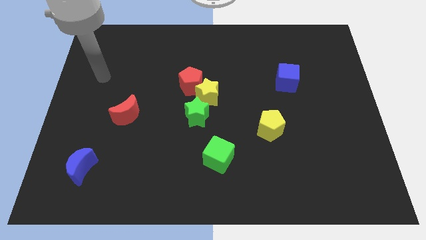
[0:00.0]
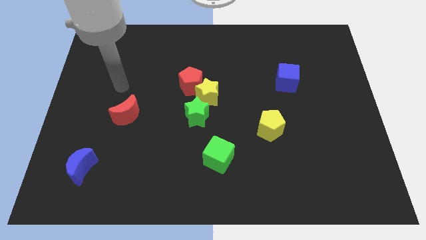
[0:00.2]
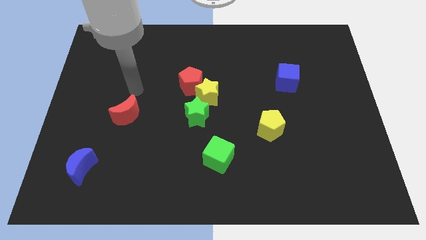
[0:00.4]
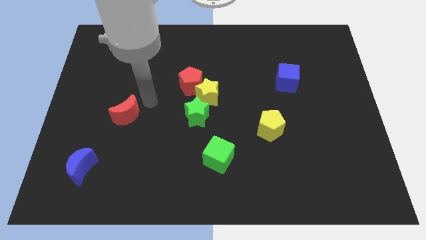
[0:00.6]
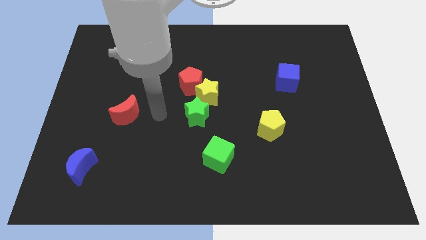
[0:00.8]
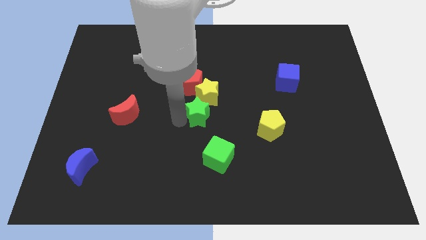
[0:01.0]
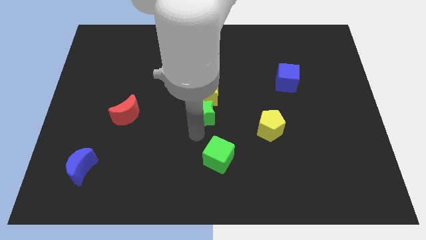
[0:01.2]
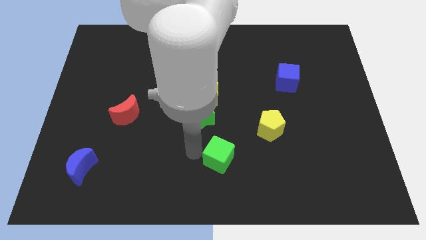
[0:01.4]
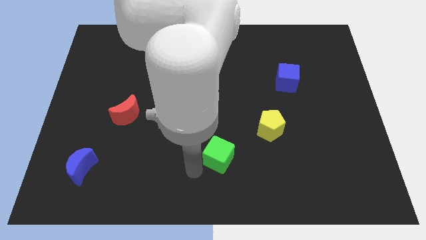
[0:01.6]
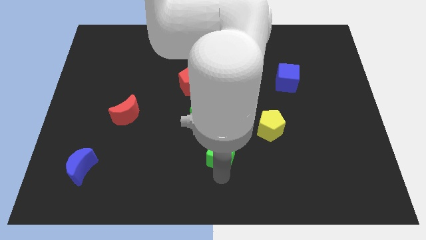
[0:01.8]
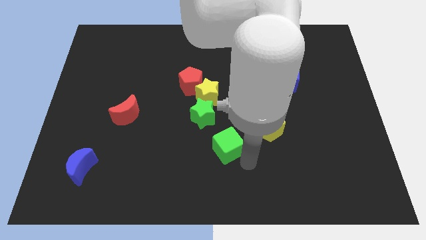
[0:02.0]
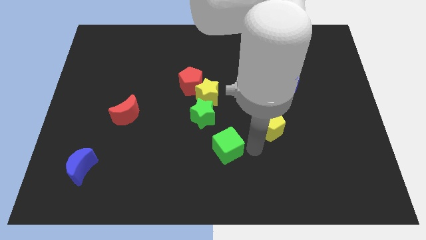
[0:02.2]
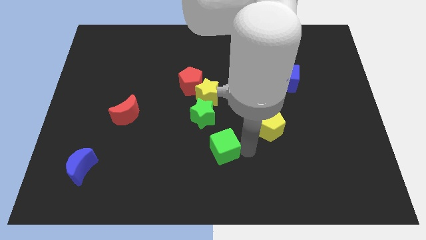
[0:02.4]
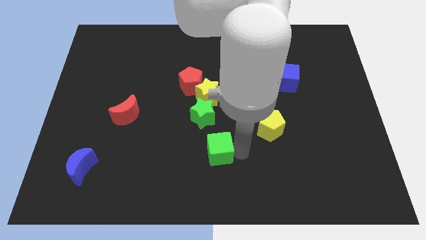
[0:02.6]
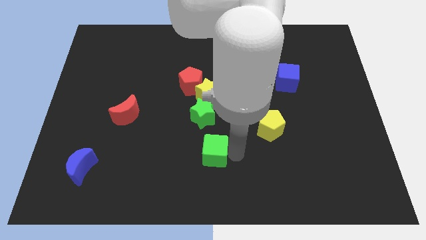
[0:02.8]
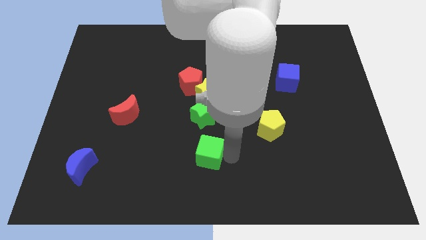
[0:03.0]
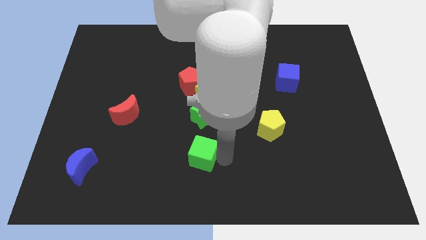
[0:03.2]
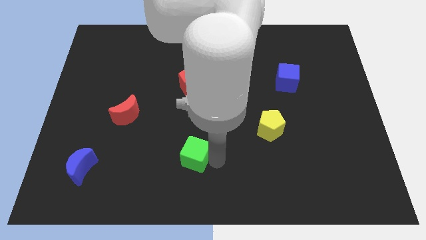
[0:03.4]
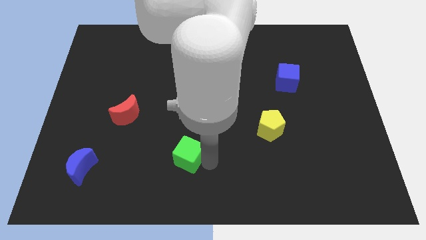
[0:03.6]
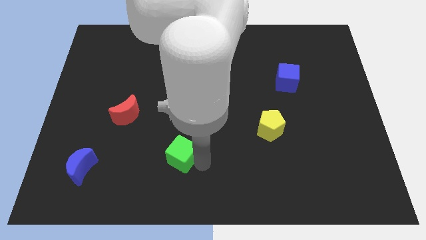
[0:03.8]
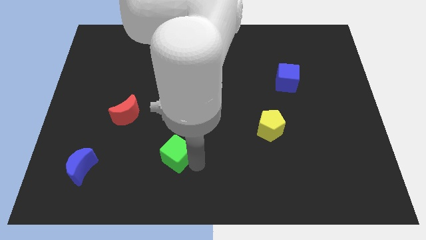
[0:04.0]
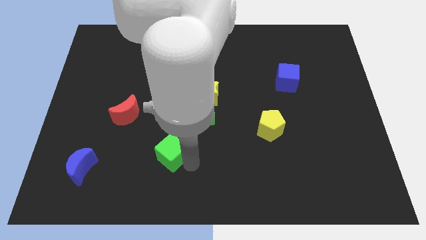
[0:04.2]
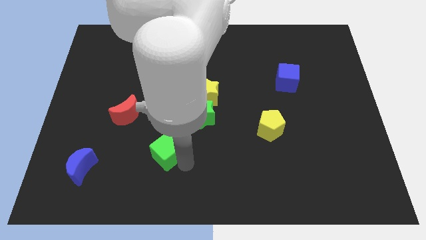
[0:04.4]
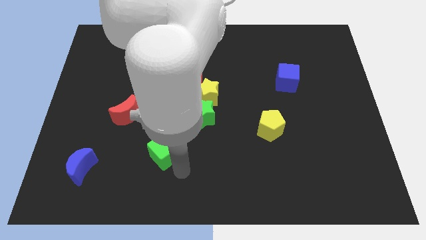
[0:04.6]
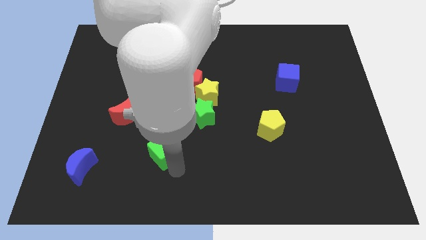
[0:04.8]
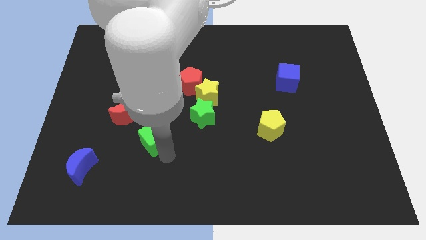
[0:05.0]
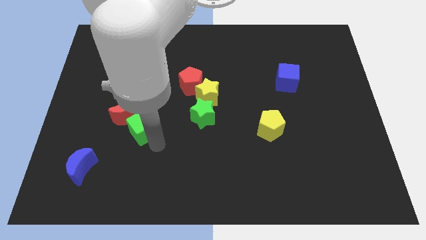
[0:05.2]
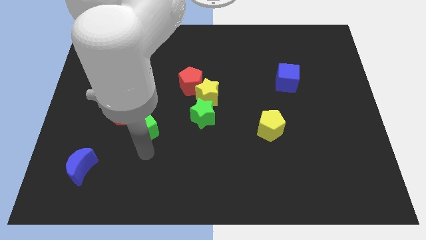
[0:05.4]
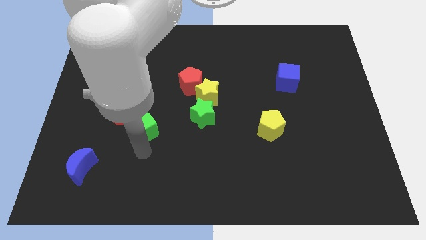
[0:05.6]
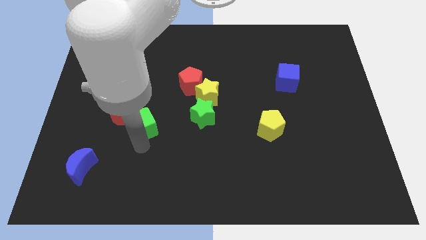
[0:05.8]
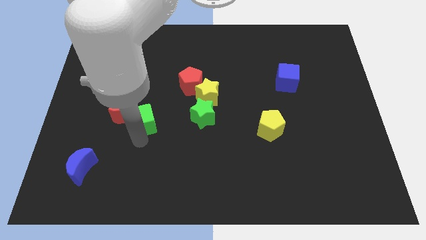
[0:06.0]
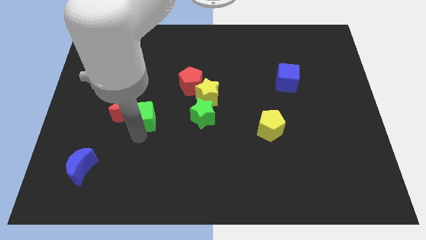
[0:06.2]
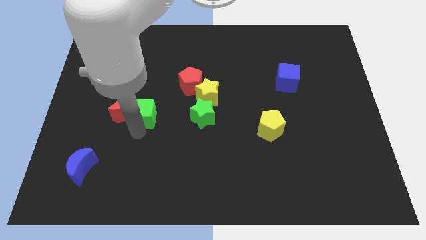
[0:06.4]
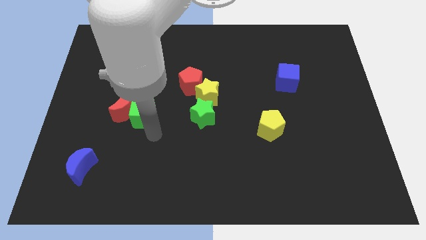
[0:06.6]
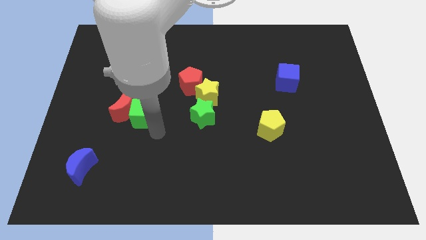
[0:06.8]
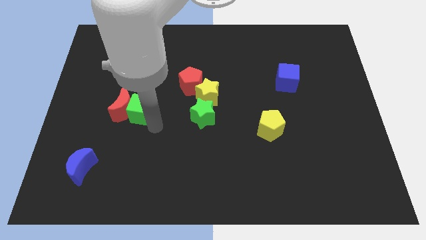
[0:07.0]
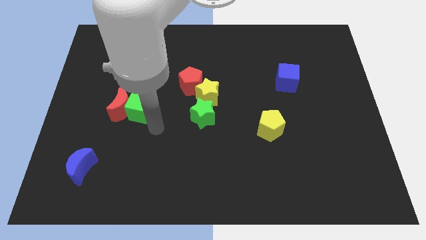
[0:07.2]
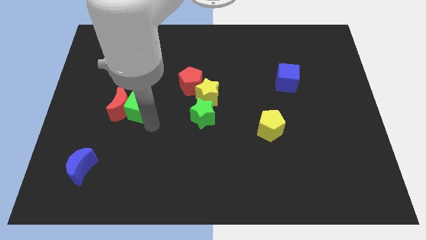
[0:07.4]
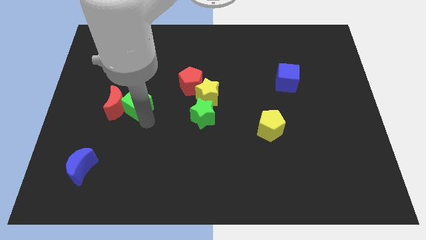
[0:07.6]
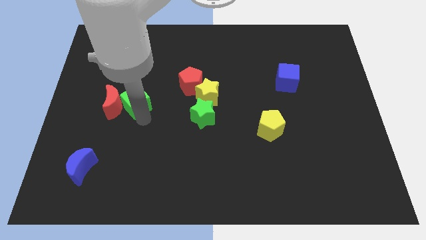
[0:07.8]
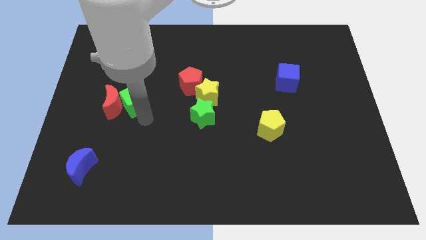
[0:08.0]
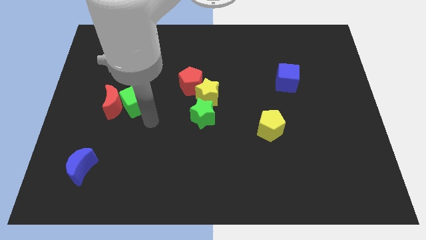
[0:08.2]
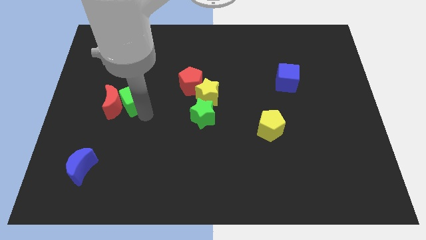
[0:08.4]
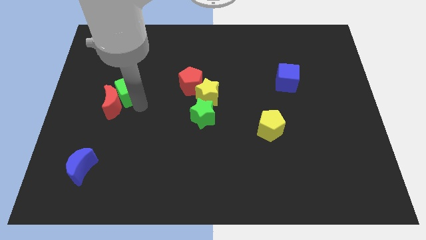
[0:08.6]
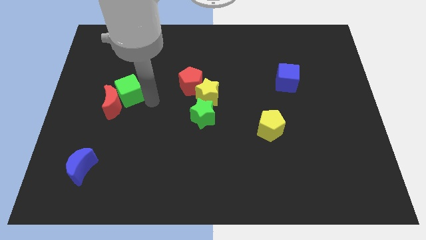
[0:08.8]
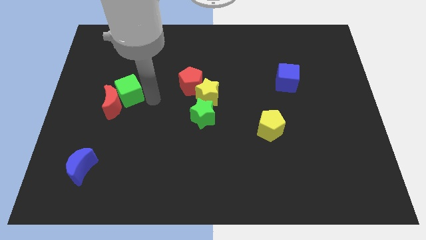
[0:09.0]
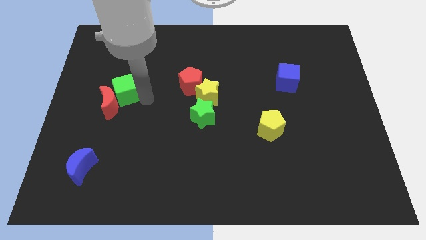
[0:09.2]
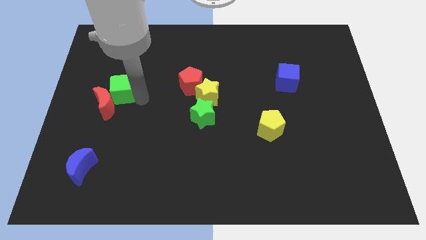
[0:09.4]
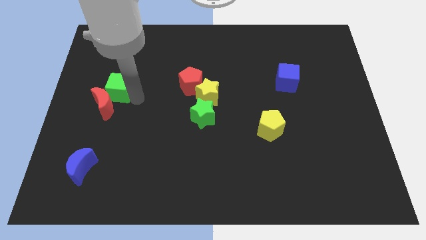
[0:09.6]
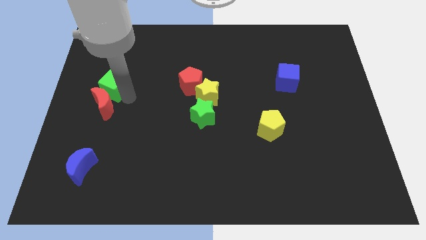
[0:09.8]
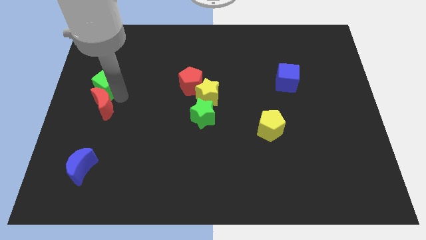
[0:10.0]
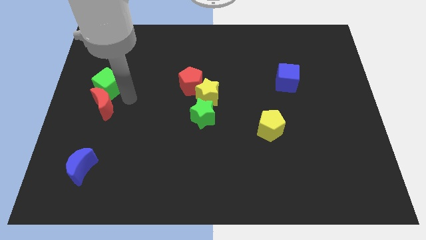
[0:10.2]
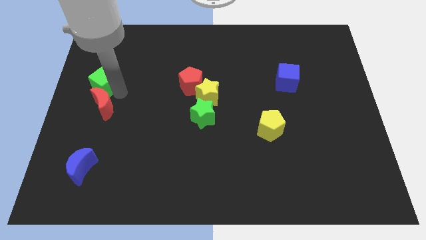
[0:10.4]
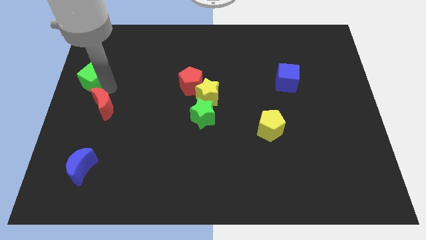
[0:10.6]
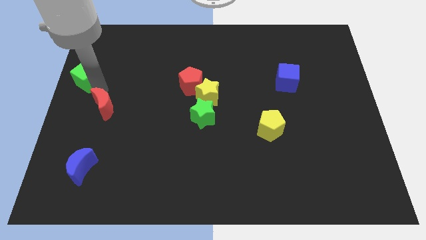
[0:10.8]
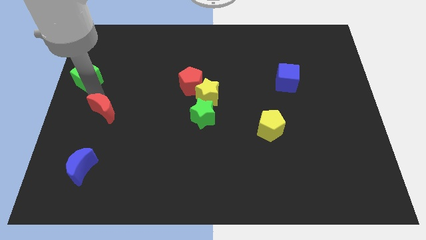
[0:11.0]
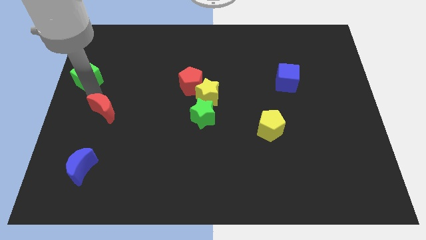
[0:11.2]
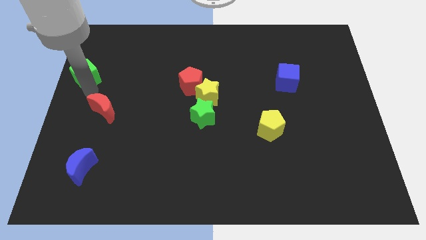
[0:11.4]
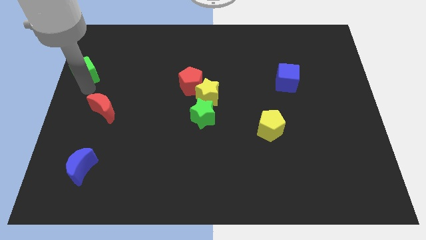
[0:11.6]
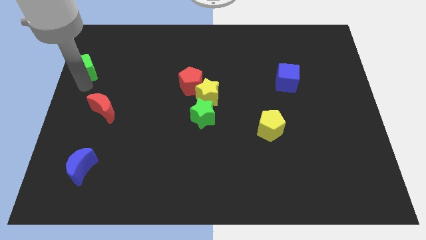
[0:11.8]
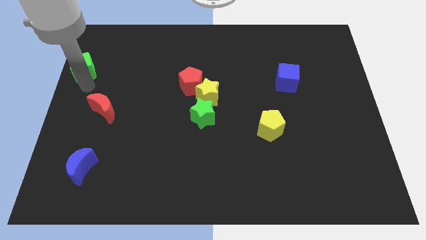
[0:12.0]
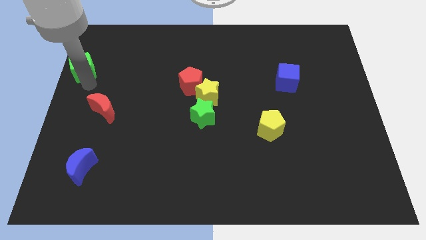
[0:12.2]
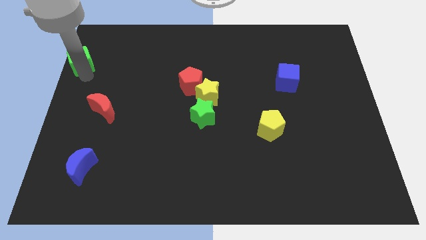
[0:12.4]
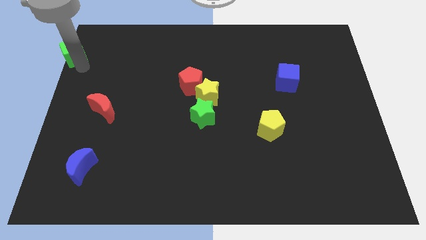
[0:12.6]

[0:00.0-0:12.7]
move the green cube to the top left corner
